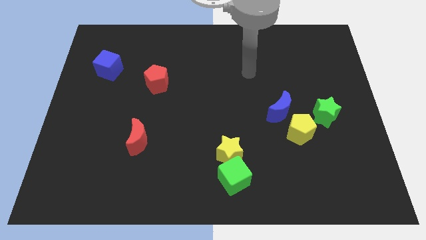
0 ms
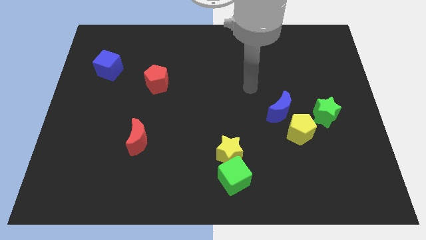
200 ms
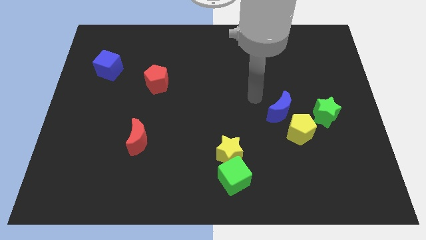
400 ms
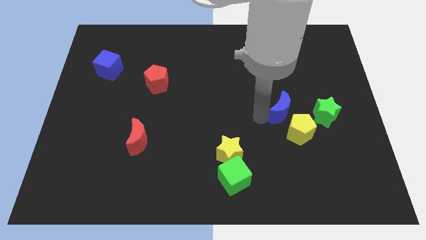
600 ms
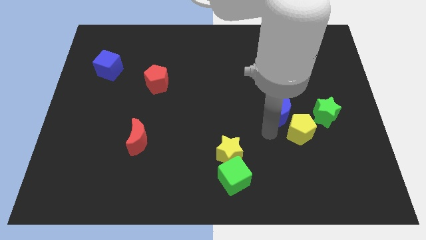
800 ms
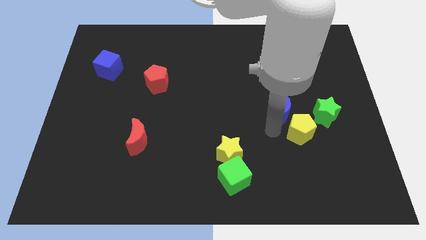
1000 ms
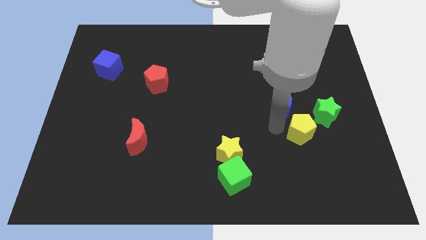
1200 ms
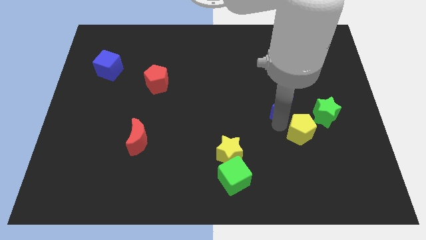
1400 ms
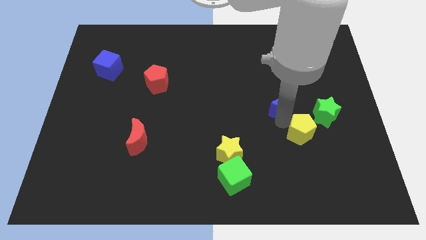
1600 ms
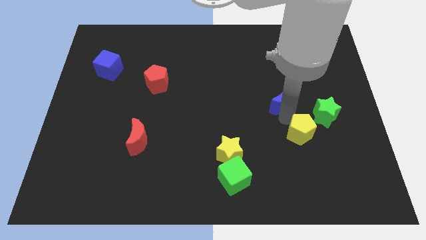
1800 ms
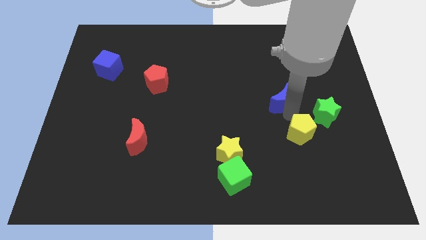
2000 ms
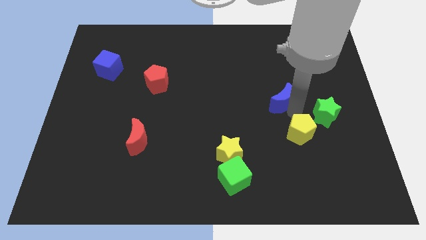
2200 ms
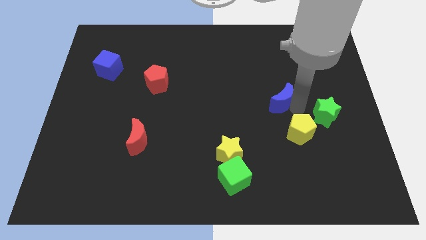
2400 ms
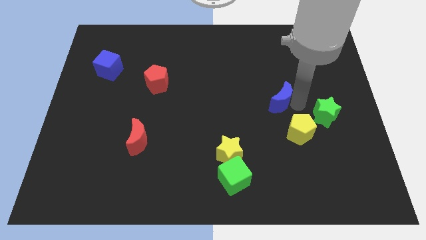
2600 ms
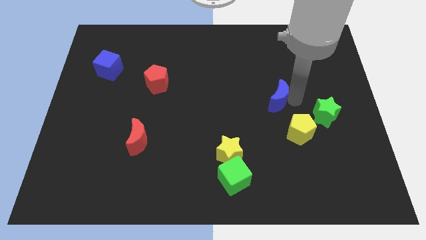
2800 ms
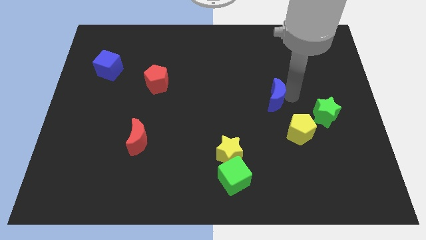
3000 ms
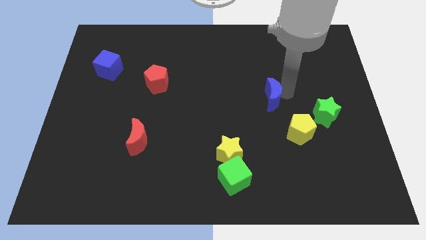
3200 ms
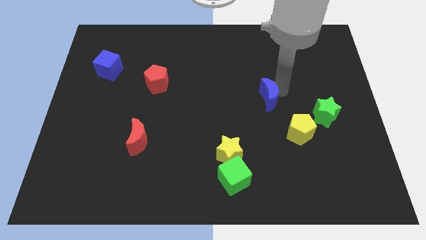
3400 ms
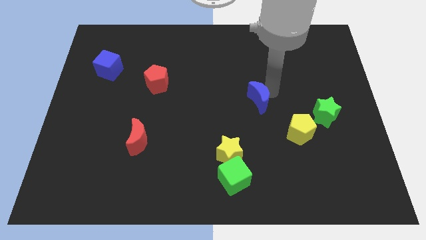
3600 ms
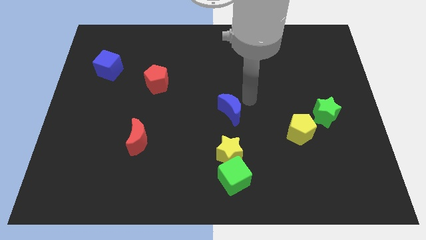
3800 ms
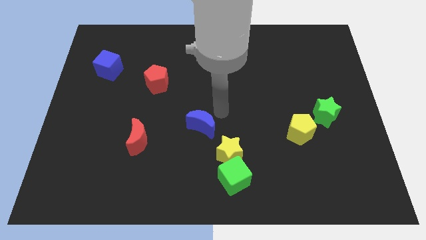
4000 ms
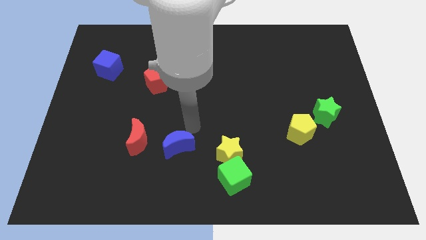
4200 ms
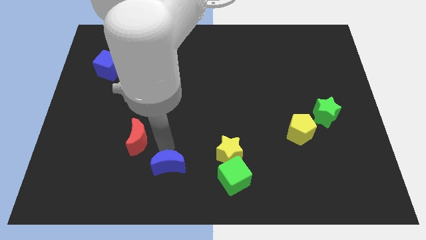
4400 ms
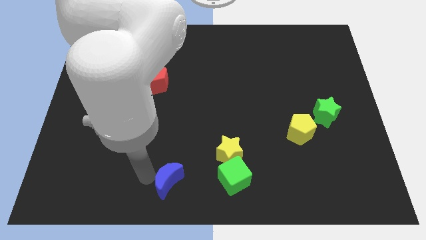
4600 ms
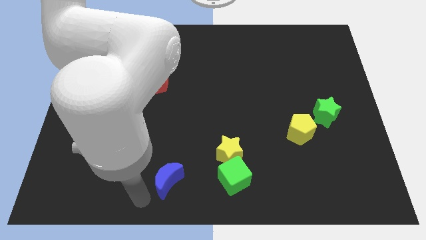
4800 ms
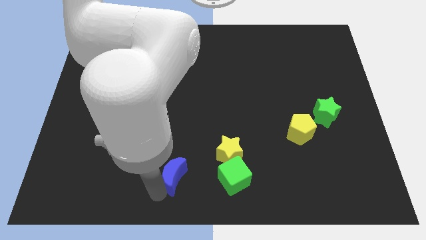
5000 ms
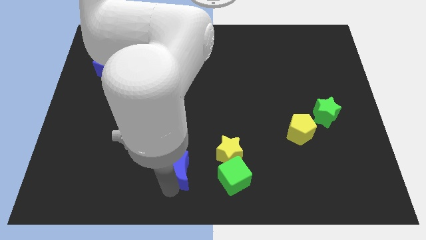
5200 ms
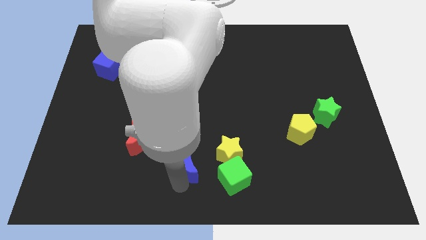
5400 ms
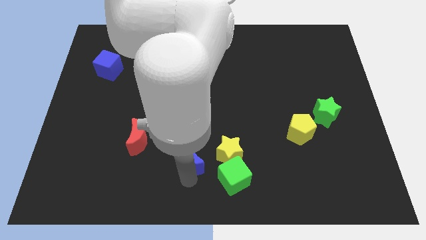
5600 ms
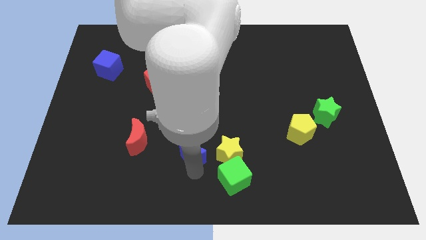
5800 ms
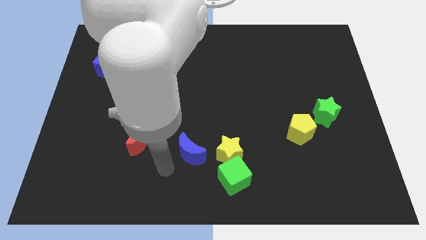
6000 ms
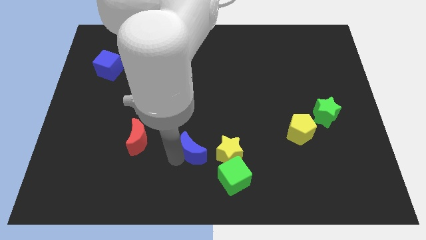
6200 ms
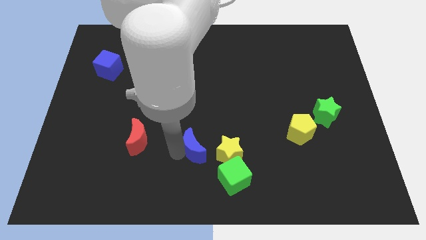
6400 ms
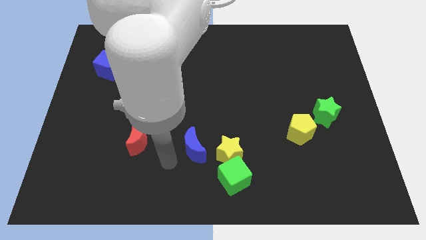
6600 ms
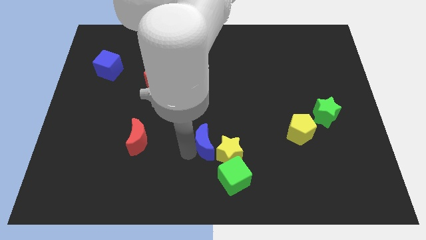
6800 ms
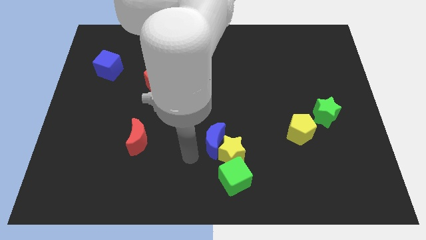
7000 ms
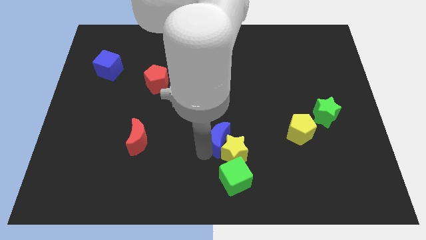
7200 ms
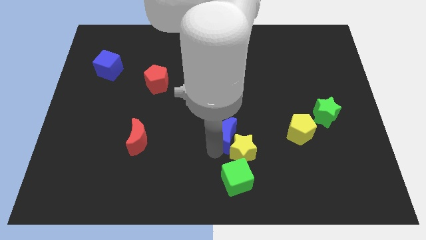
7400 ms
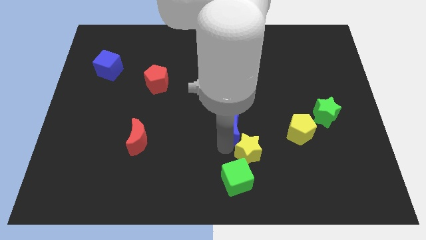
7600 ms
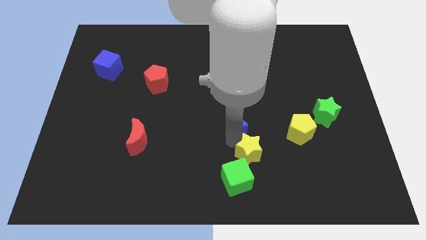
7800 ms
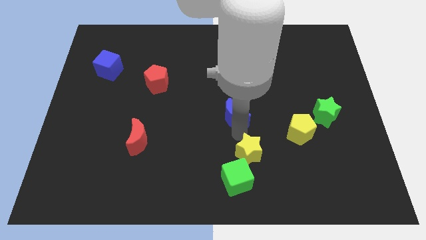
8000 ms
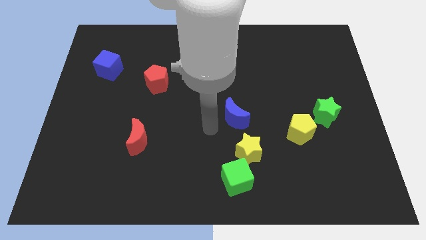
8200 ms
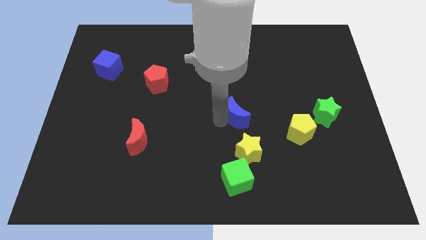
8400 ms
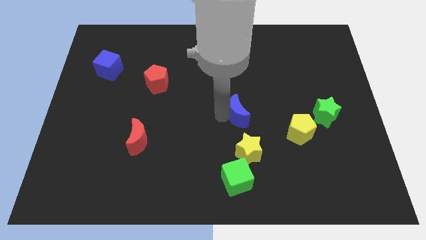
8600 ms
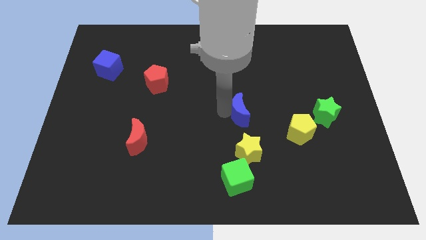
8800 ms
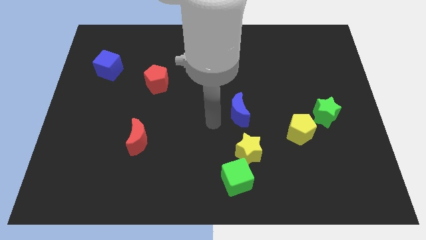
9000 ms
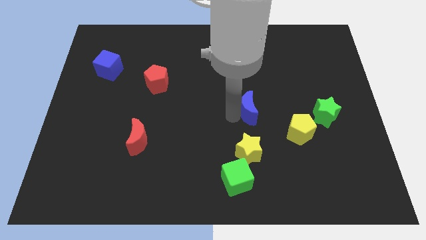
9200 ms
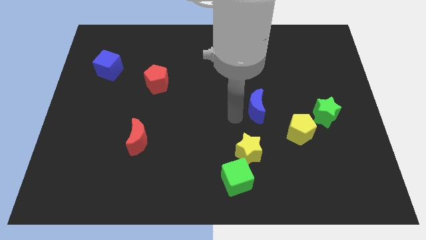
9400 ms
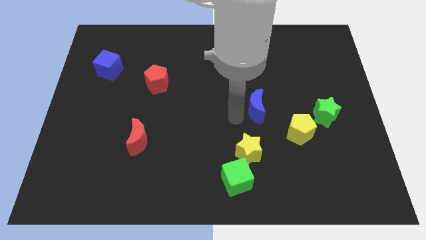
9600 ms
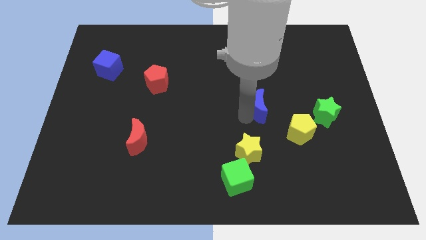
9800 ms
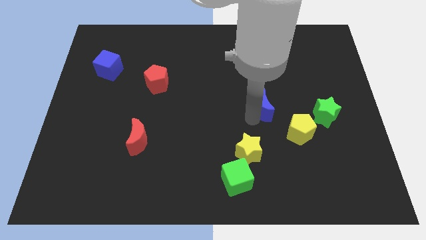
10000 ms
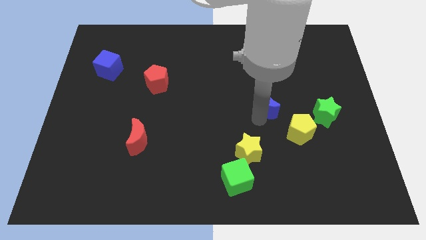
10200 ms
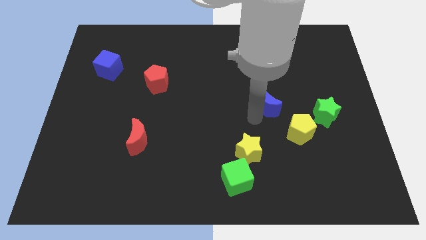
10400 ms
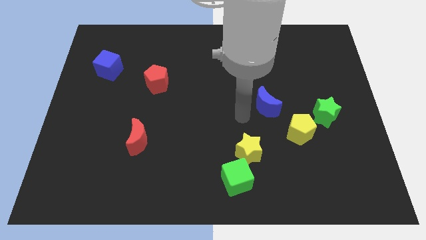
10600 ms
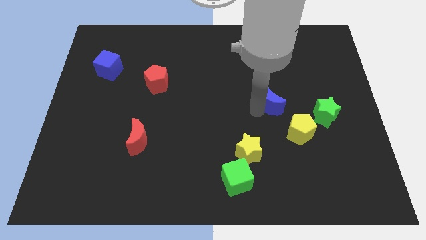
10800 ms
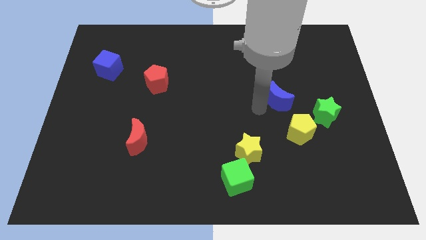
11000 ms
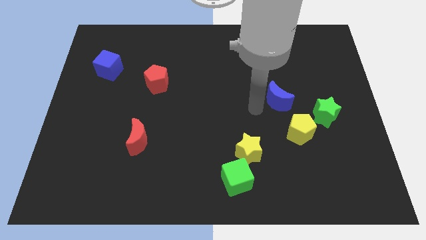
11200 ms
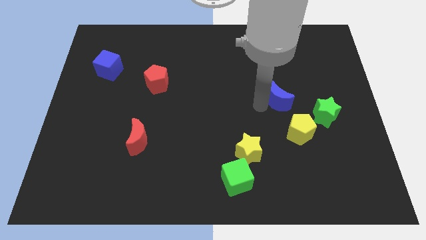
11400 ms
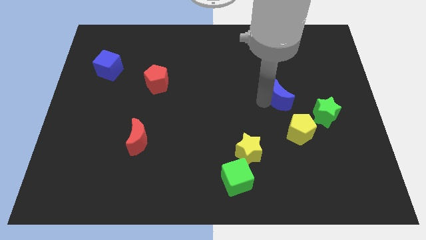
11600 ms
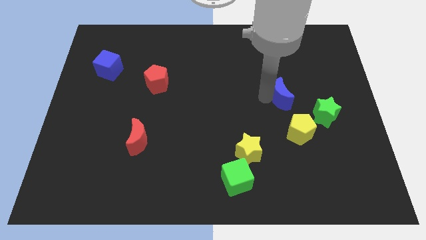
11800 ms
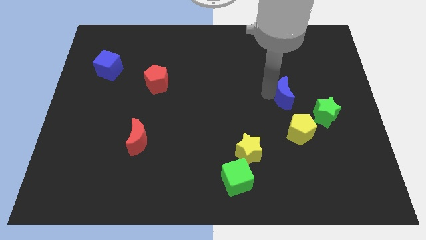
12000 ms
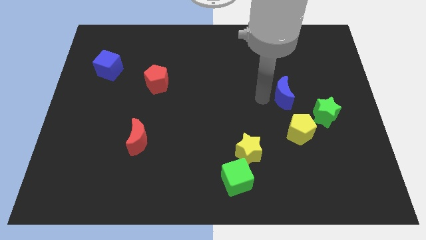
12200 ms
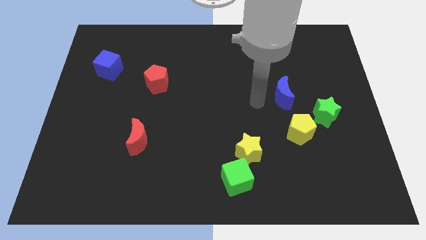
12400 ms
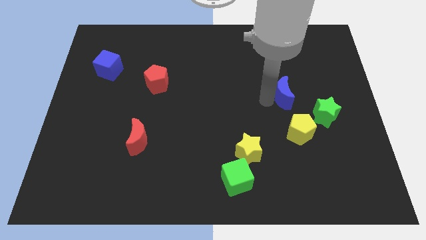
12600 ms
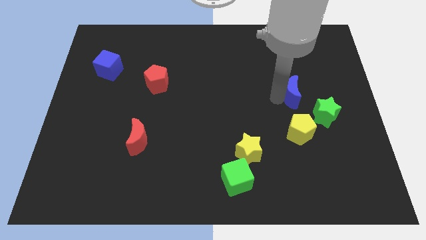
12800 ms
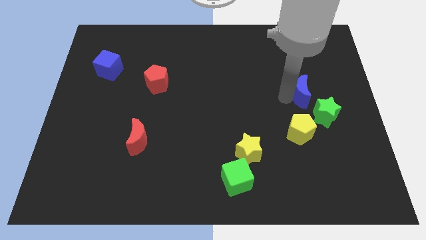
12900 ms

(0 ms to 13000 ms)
push the blue moon above the green star

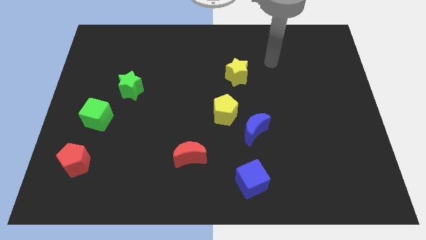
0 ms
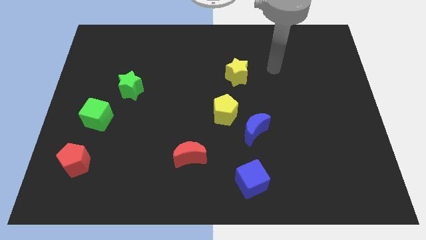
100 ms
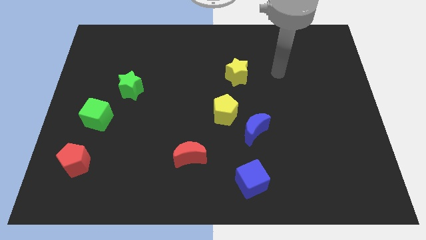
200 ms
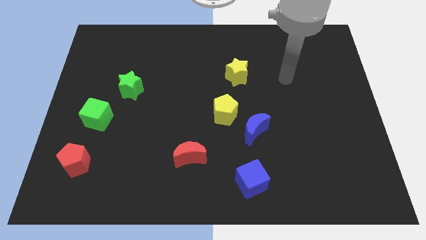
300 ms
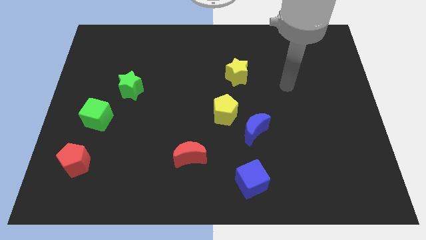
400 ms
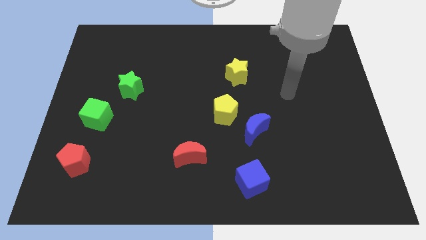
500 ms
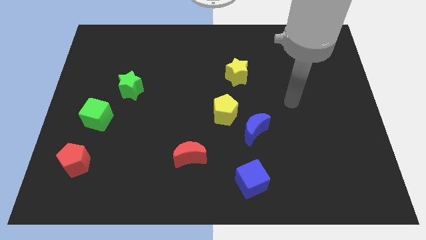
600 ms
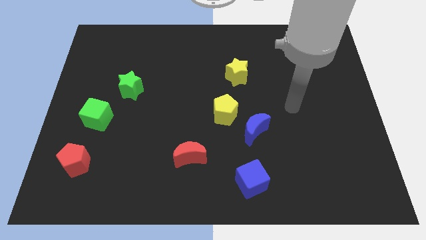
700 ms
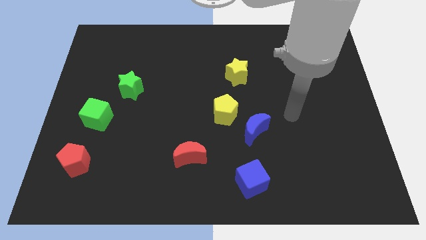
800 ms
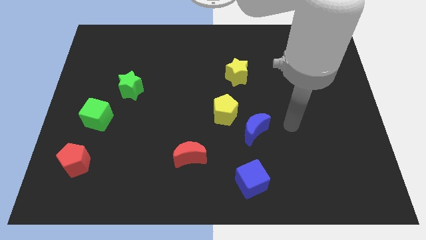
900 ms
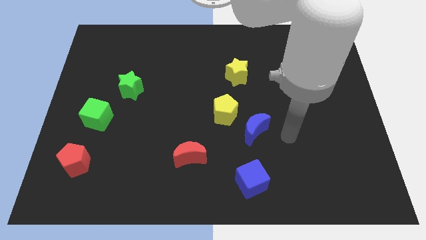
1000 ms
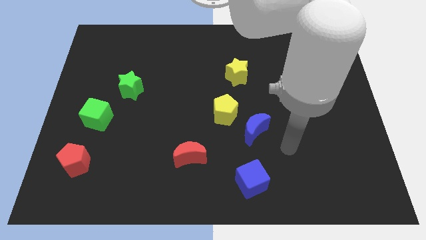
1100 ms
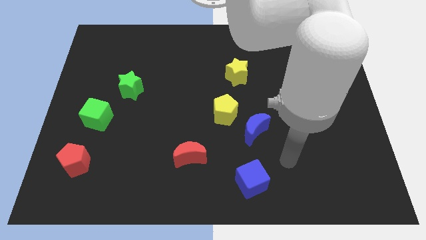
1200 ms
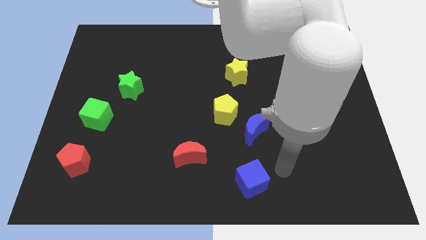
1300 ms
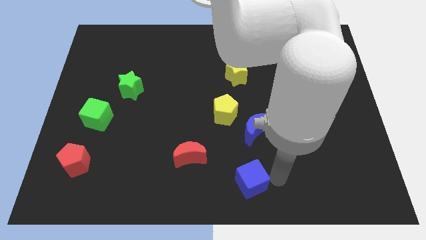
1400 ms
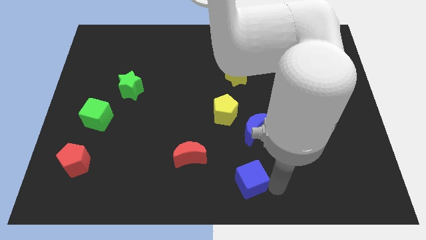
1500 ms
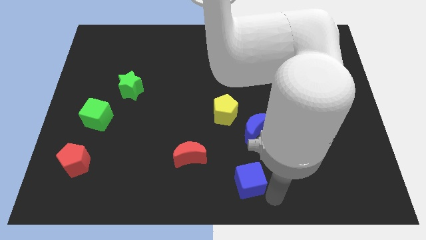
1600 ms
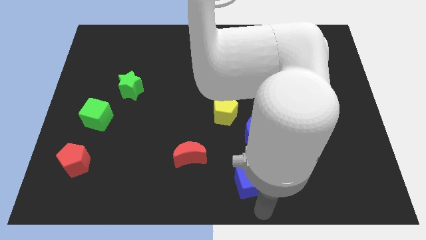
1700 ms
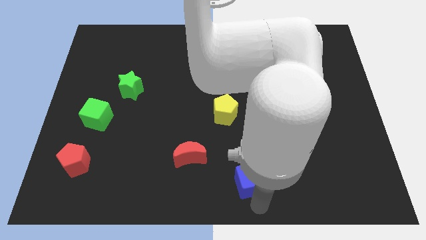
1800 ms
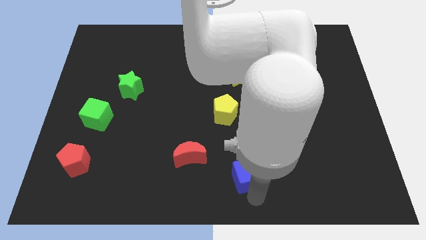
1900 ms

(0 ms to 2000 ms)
slide the blue cube right of the red moon
